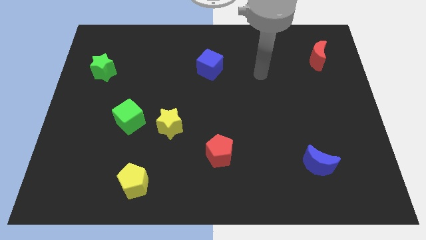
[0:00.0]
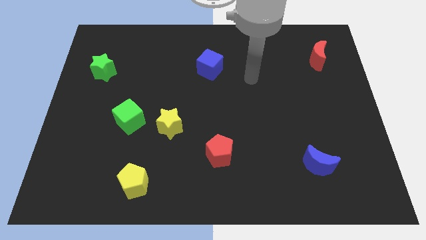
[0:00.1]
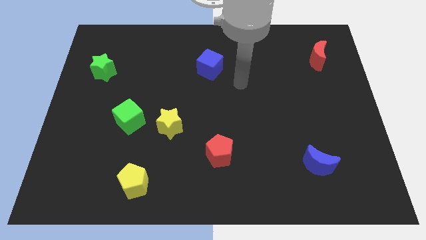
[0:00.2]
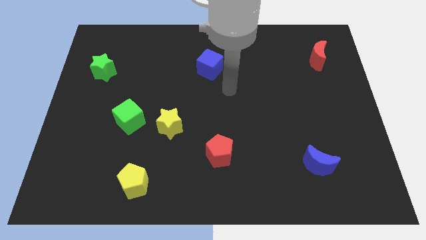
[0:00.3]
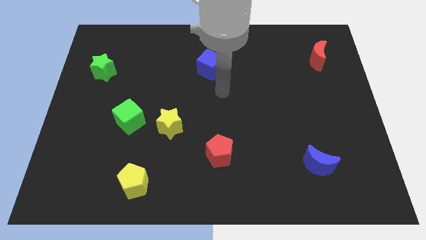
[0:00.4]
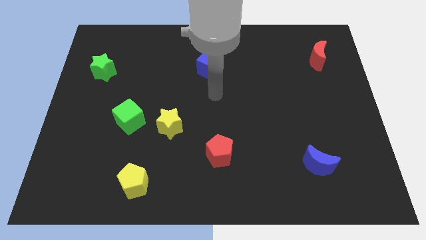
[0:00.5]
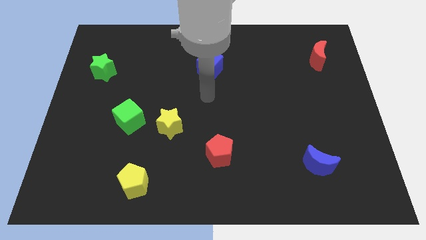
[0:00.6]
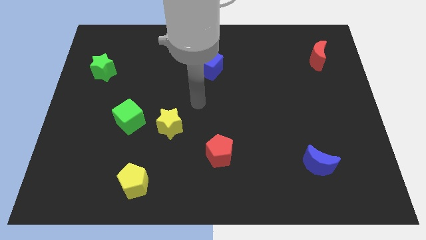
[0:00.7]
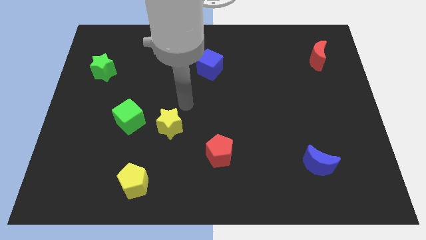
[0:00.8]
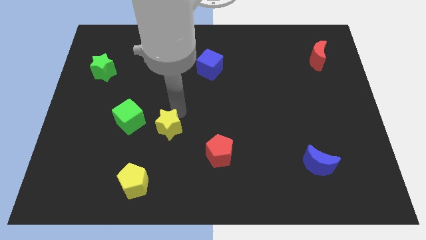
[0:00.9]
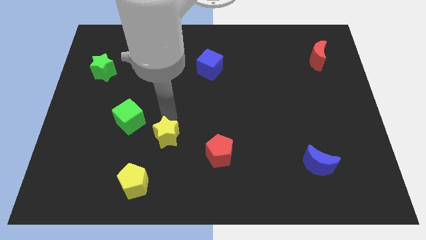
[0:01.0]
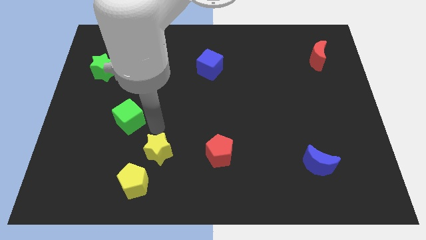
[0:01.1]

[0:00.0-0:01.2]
move the green cube away from the yellow star

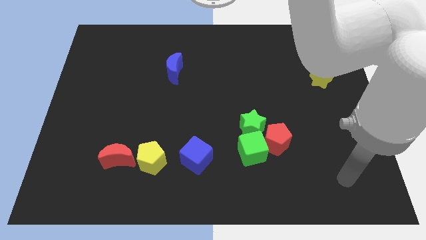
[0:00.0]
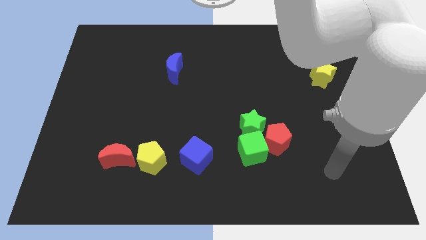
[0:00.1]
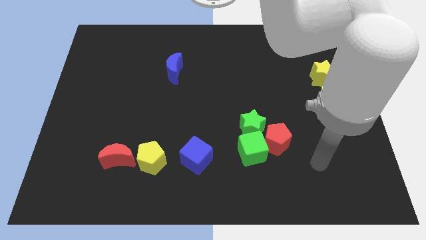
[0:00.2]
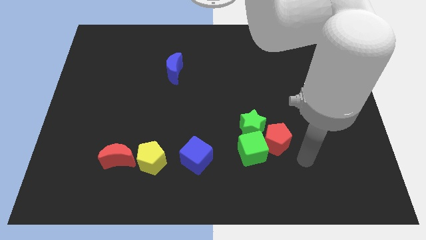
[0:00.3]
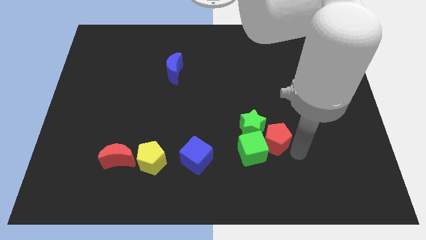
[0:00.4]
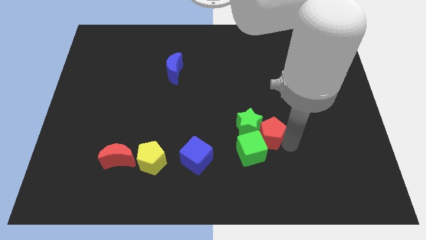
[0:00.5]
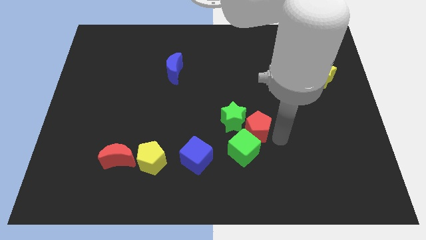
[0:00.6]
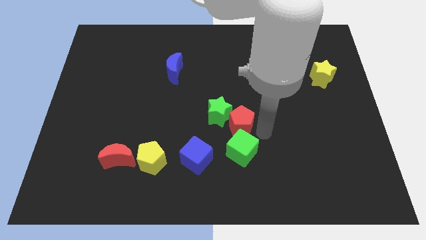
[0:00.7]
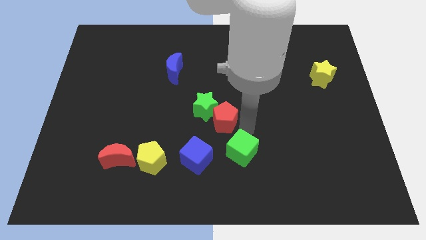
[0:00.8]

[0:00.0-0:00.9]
separate the green cube from the green star and red pentagon

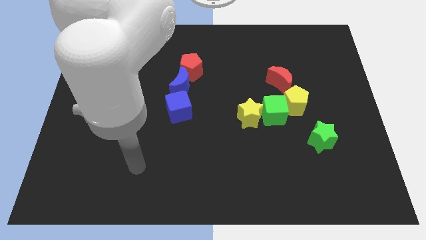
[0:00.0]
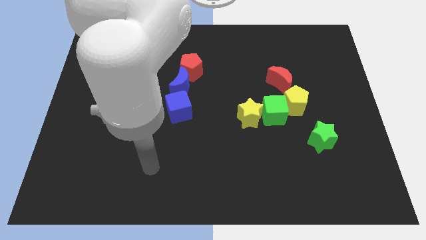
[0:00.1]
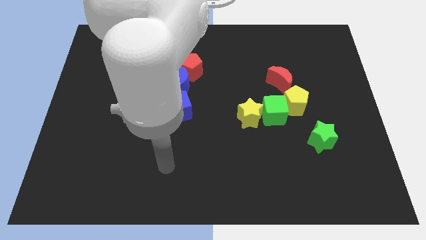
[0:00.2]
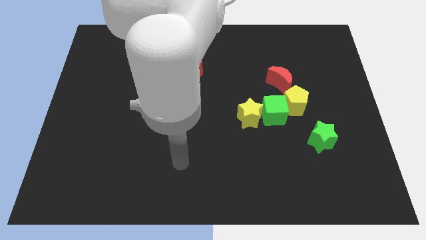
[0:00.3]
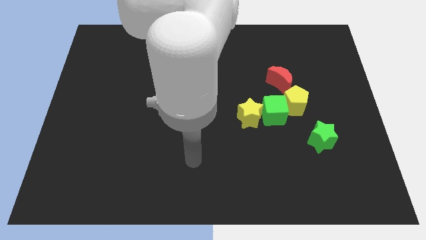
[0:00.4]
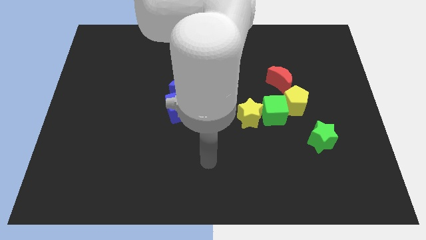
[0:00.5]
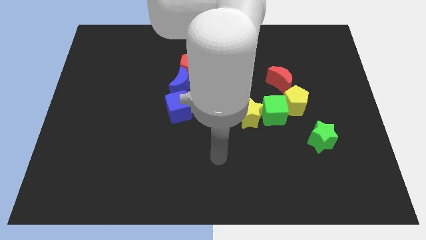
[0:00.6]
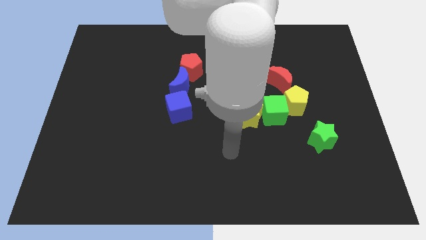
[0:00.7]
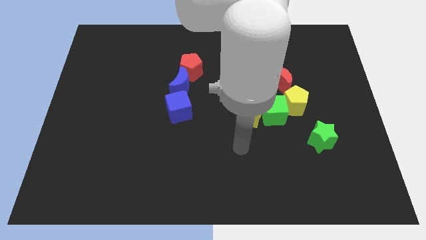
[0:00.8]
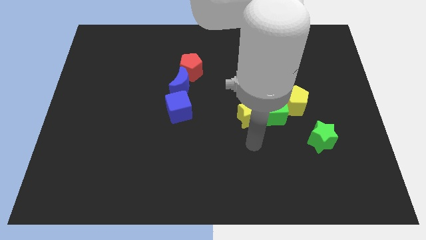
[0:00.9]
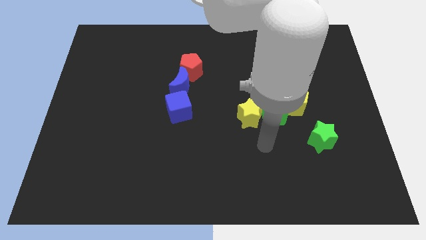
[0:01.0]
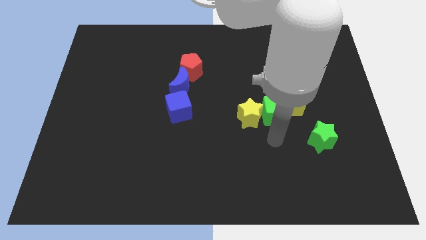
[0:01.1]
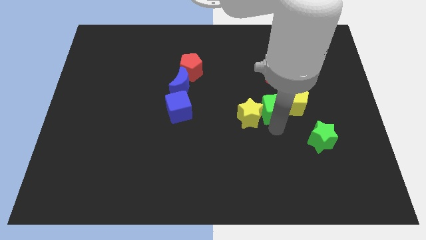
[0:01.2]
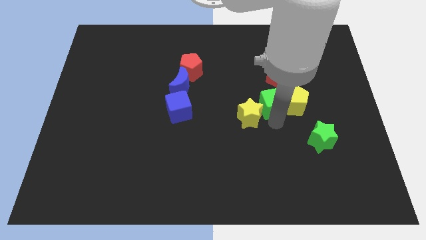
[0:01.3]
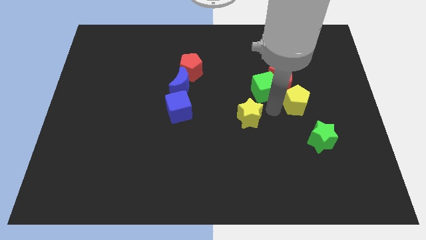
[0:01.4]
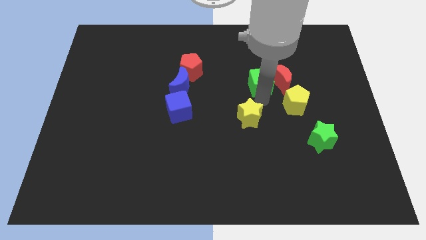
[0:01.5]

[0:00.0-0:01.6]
pull the yellow star apart from the green cube

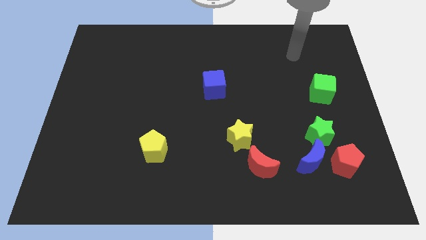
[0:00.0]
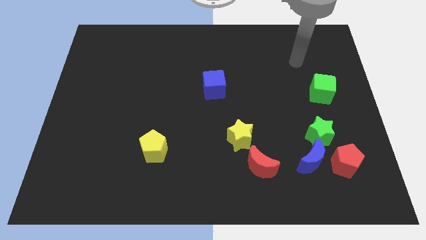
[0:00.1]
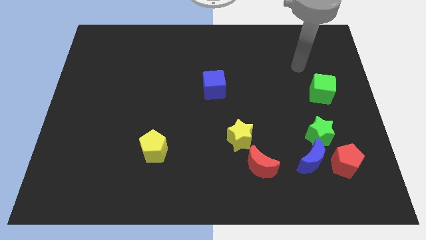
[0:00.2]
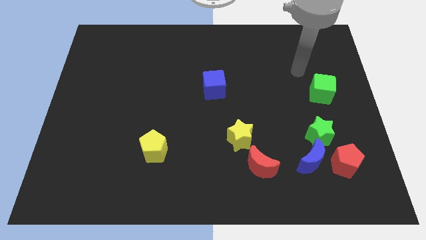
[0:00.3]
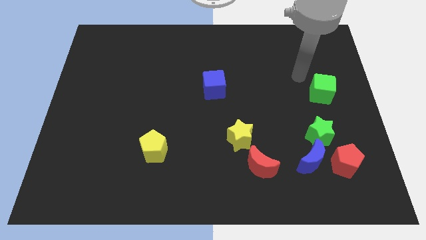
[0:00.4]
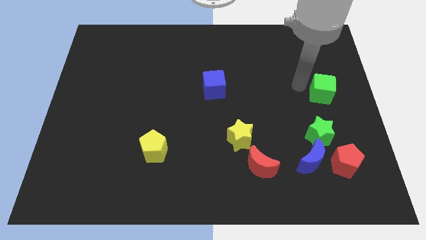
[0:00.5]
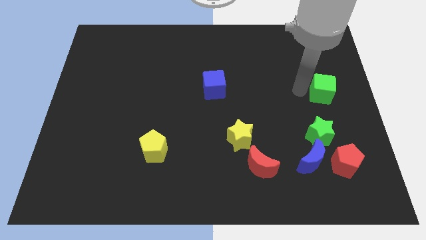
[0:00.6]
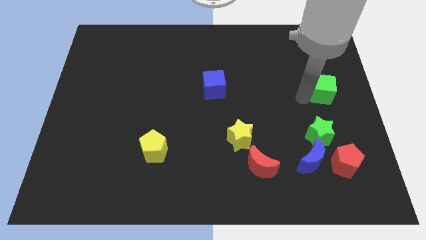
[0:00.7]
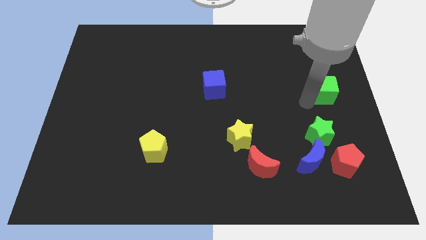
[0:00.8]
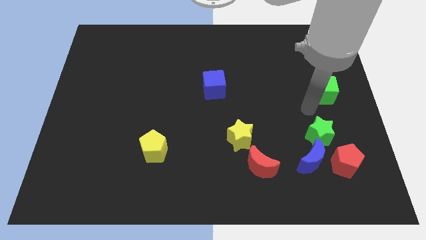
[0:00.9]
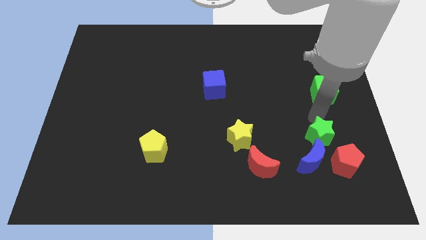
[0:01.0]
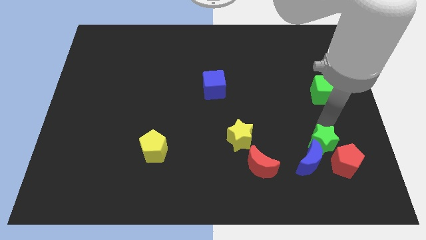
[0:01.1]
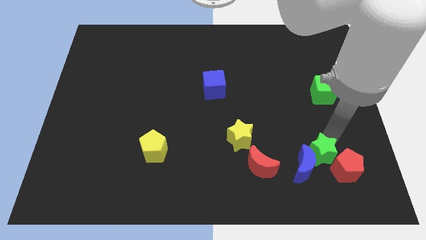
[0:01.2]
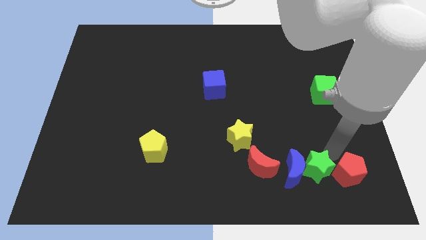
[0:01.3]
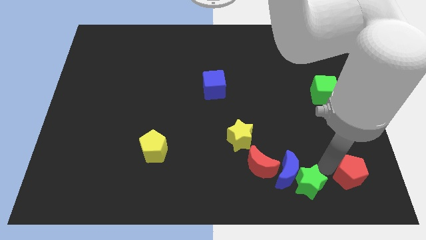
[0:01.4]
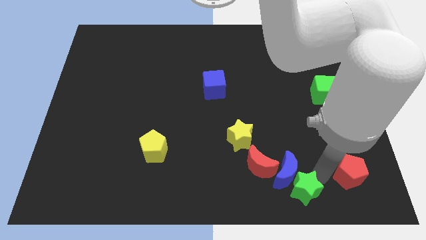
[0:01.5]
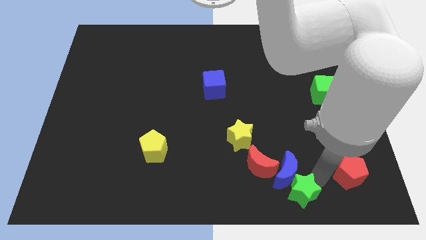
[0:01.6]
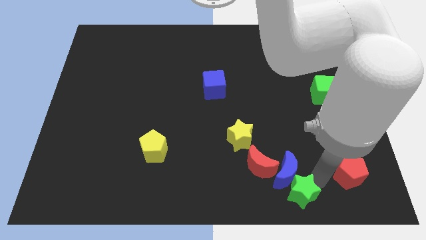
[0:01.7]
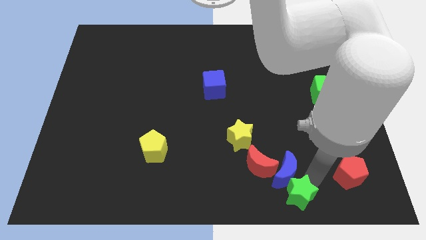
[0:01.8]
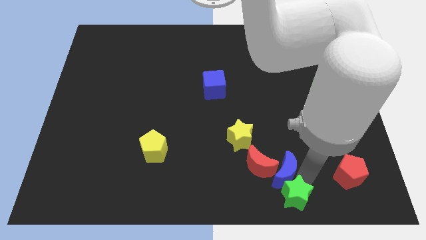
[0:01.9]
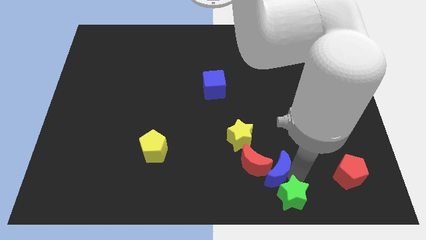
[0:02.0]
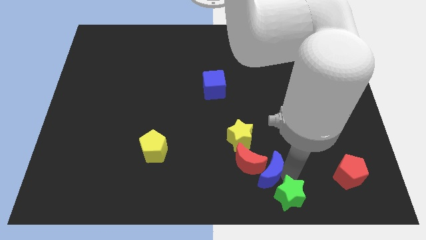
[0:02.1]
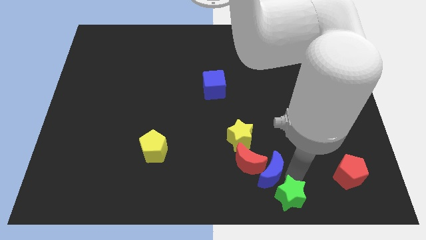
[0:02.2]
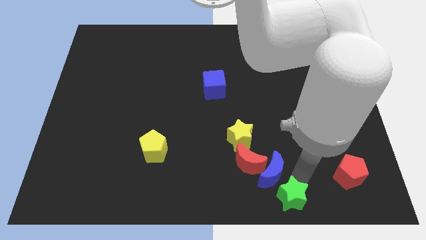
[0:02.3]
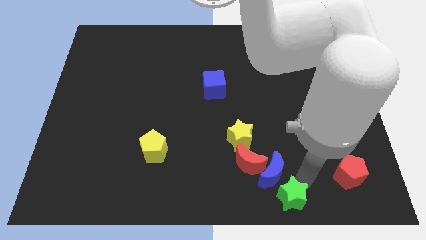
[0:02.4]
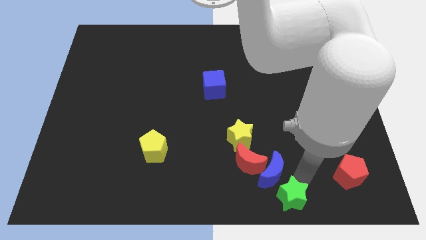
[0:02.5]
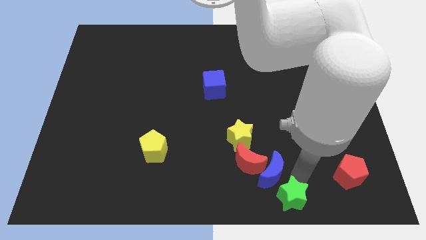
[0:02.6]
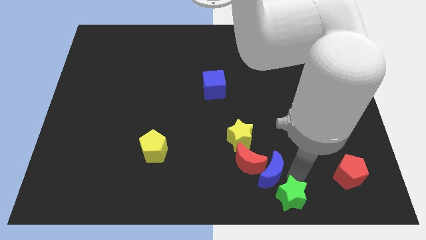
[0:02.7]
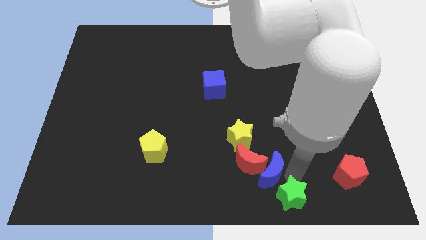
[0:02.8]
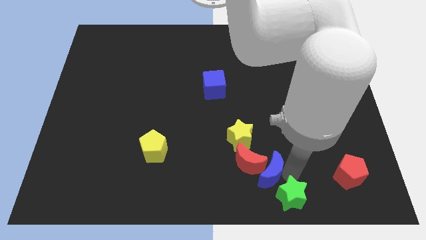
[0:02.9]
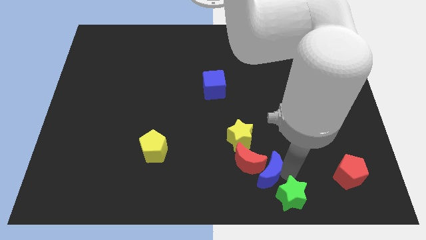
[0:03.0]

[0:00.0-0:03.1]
separate the blue moon from the red pentagon and green star

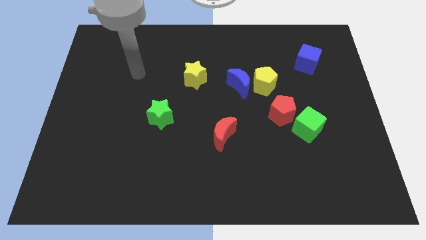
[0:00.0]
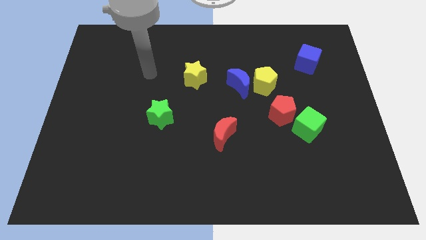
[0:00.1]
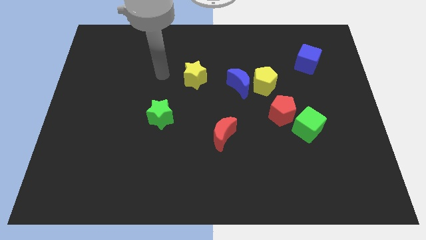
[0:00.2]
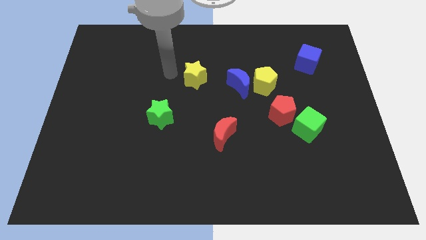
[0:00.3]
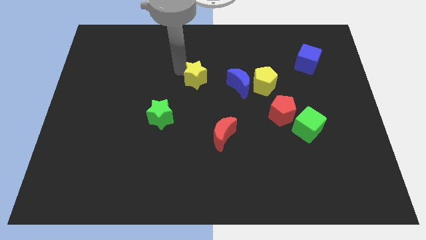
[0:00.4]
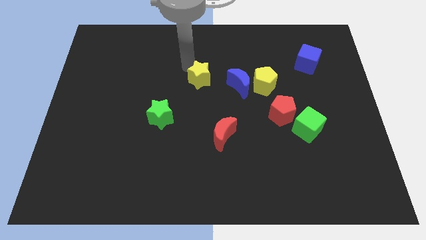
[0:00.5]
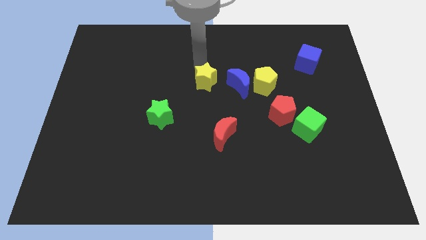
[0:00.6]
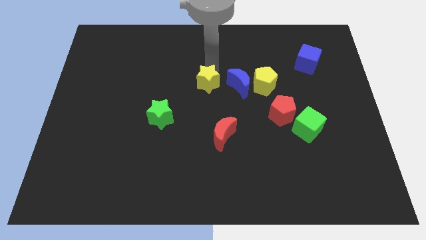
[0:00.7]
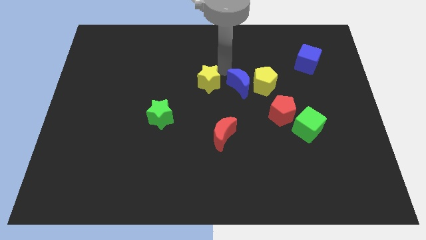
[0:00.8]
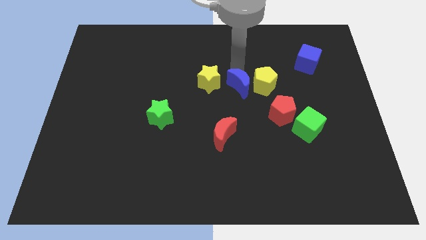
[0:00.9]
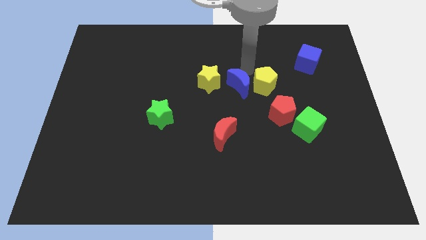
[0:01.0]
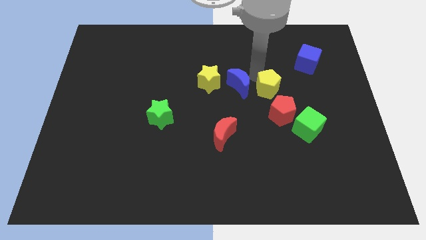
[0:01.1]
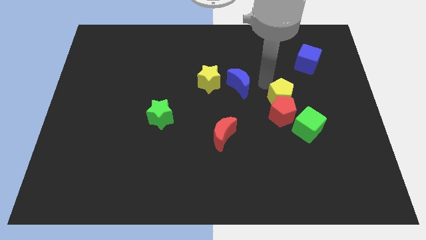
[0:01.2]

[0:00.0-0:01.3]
move the blue moon away from the yellow pentagon

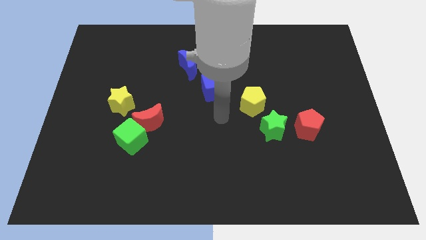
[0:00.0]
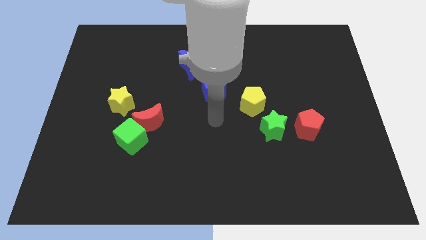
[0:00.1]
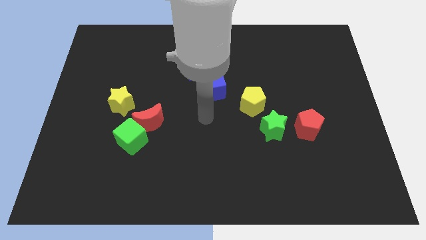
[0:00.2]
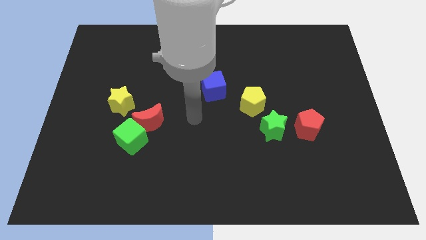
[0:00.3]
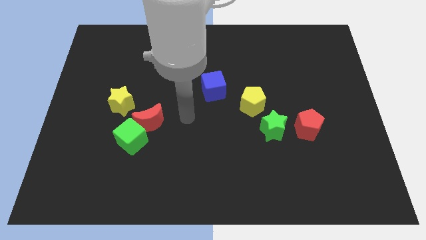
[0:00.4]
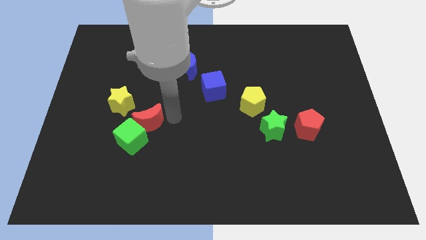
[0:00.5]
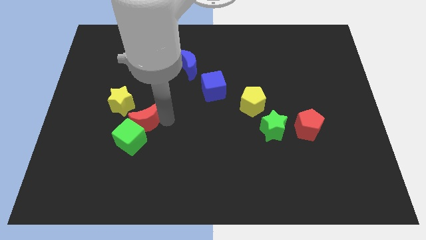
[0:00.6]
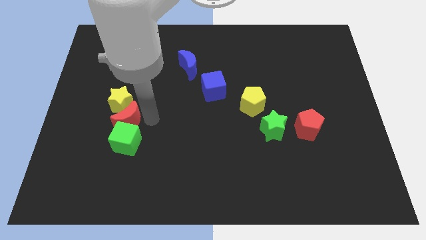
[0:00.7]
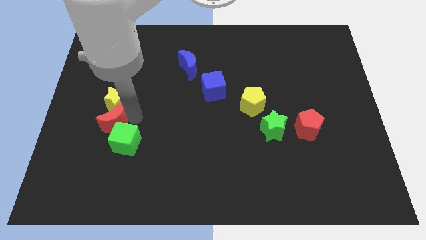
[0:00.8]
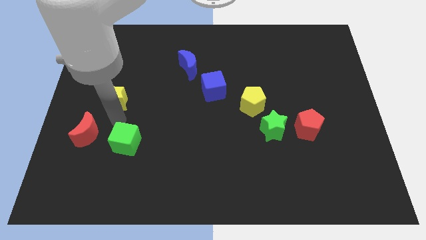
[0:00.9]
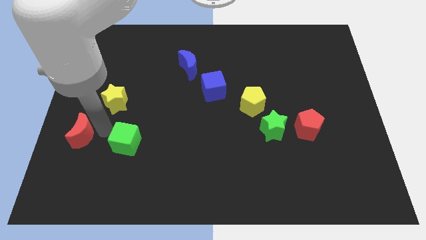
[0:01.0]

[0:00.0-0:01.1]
separate the green cube from the red moon

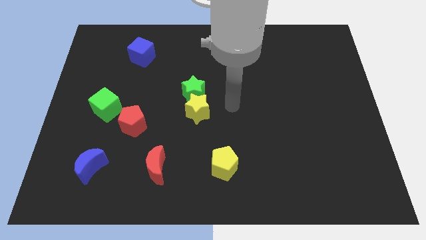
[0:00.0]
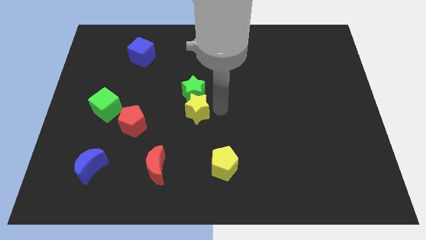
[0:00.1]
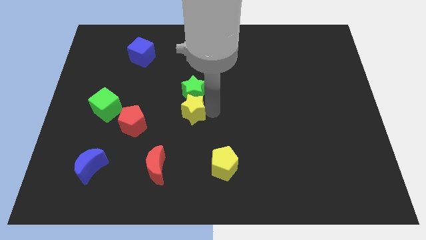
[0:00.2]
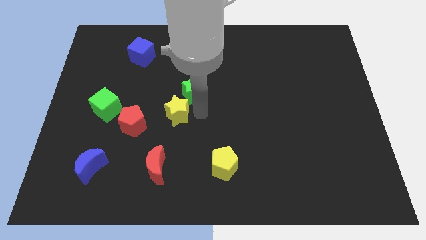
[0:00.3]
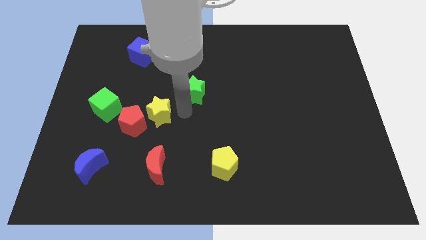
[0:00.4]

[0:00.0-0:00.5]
pull the green star apart from the yellow star
